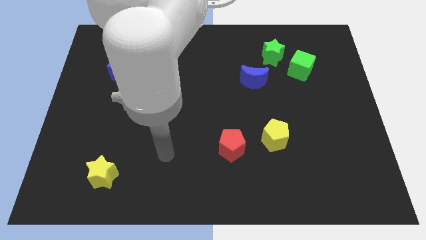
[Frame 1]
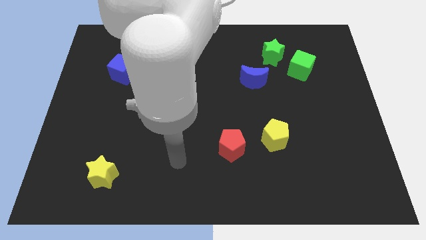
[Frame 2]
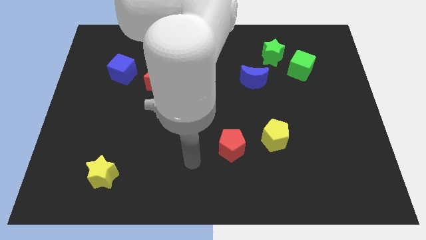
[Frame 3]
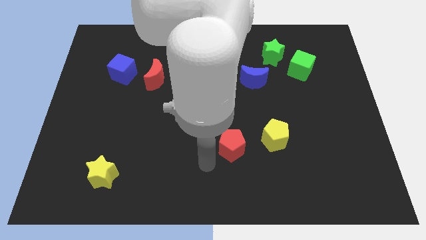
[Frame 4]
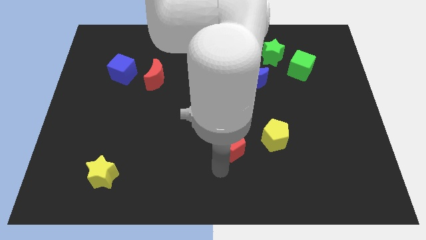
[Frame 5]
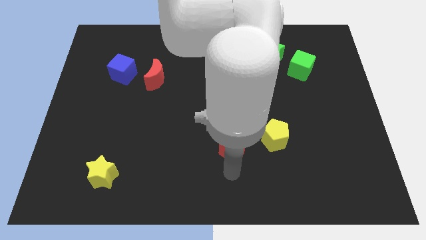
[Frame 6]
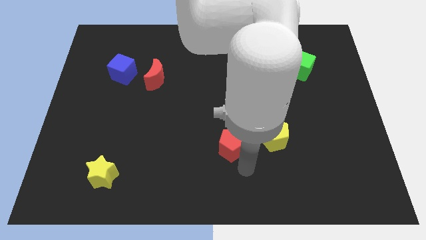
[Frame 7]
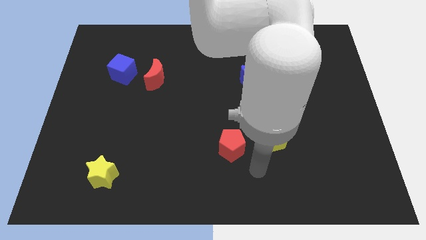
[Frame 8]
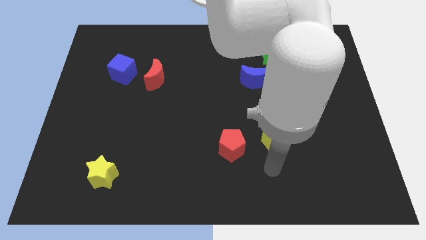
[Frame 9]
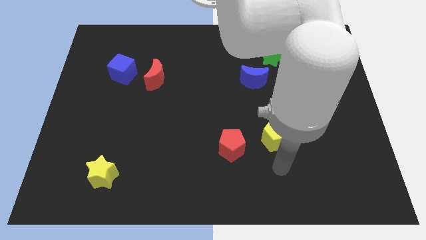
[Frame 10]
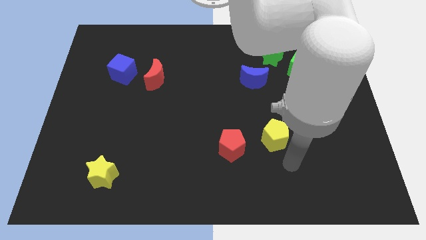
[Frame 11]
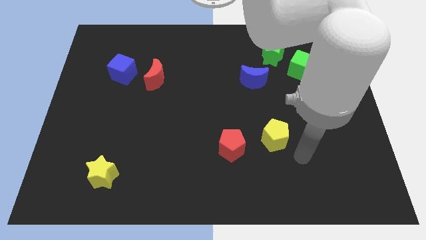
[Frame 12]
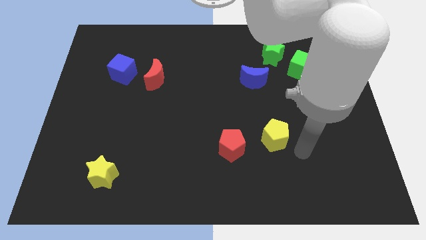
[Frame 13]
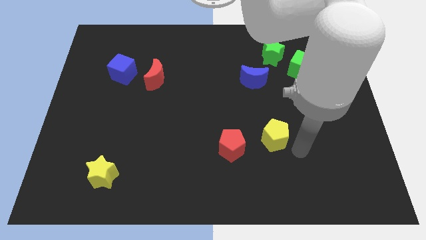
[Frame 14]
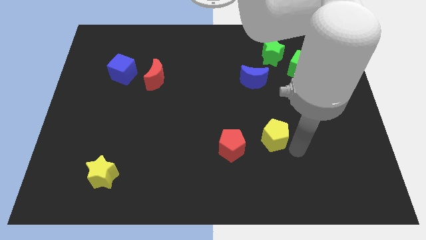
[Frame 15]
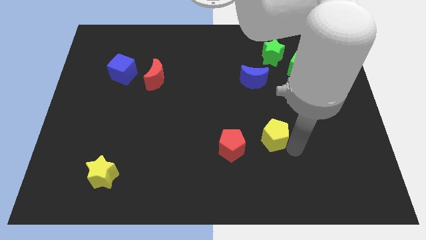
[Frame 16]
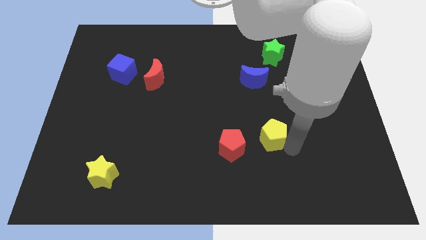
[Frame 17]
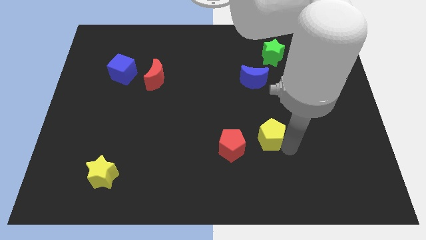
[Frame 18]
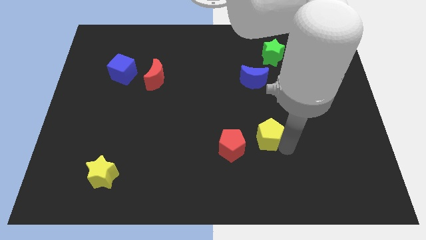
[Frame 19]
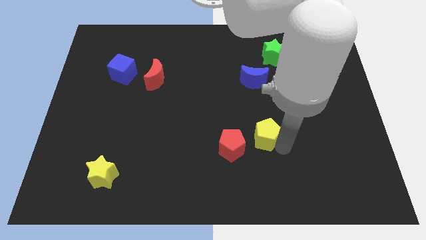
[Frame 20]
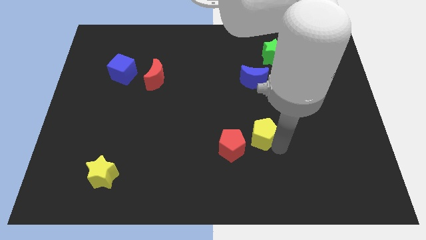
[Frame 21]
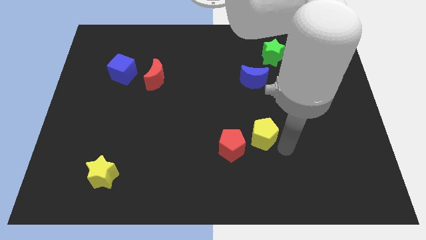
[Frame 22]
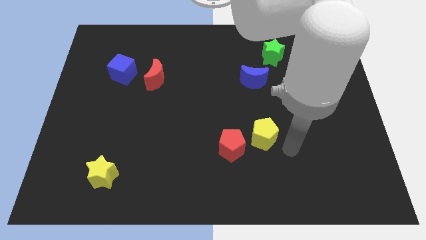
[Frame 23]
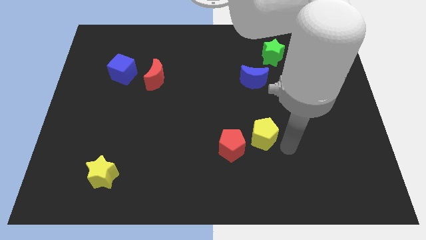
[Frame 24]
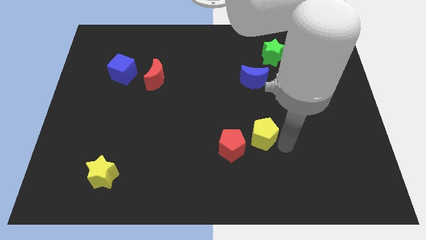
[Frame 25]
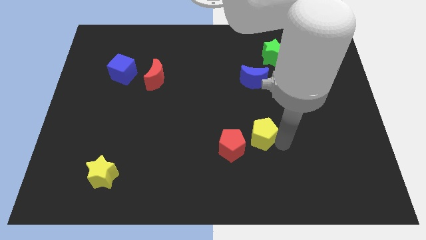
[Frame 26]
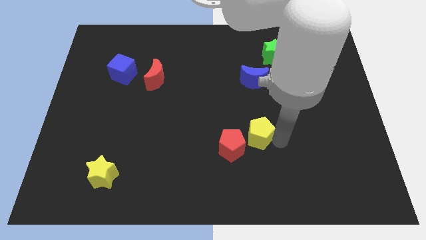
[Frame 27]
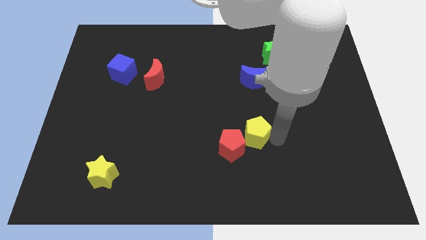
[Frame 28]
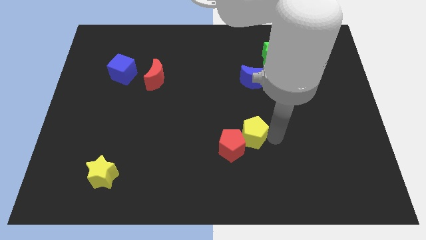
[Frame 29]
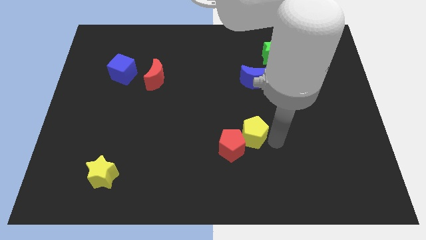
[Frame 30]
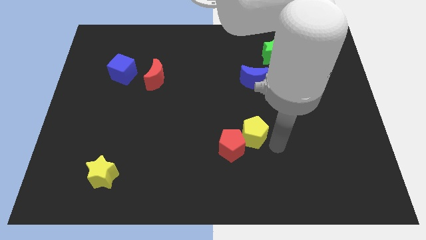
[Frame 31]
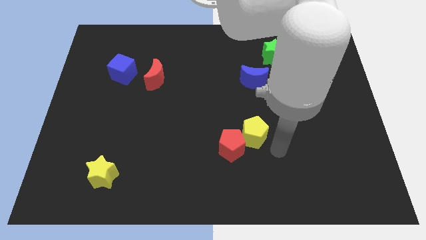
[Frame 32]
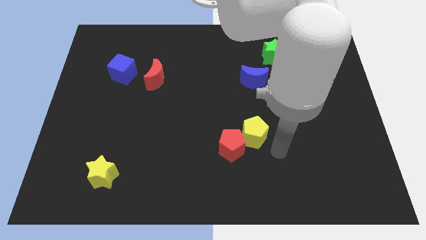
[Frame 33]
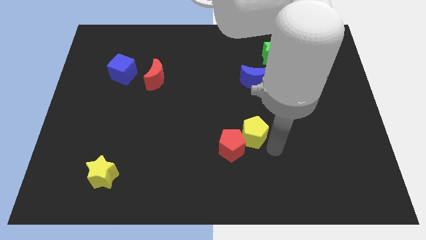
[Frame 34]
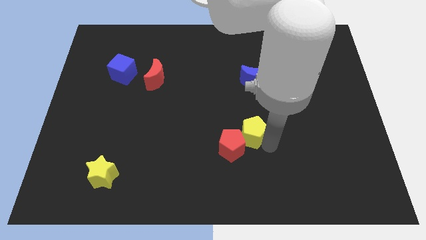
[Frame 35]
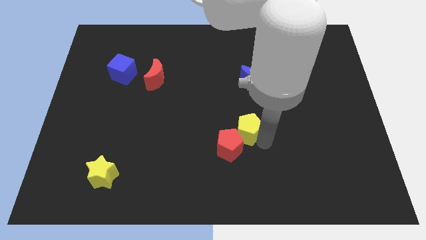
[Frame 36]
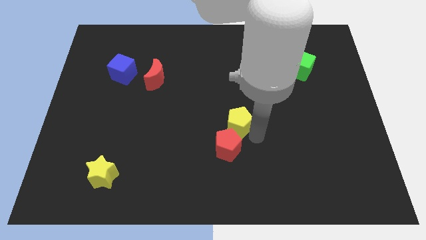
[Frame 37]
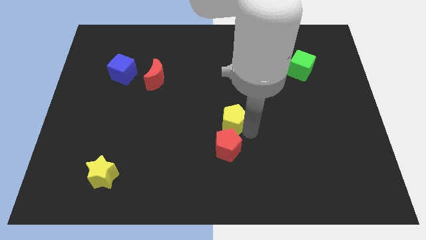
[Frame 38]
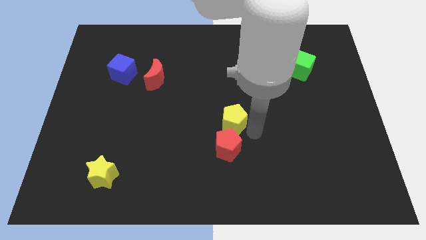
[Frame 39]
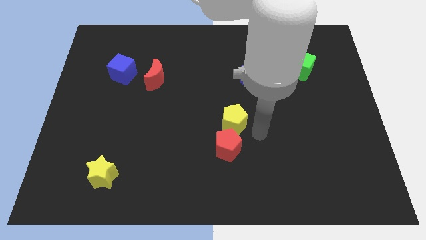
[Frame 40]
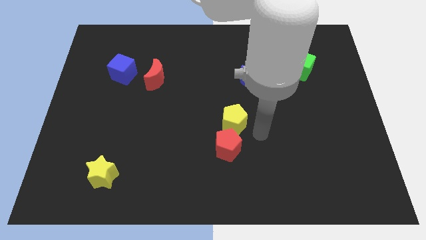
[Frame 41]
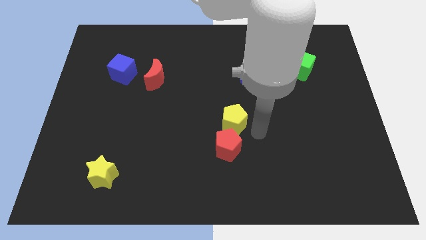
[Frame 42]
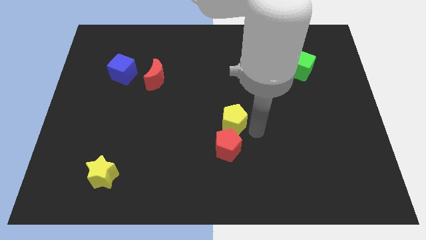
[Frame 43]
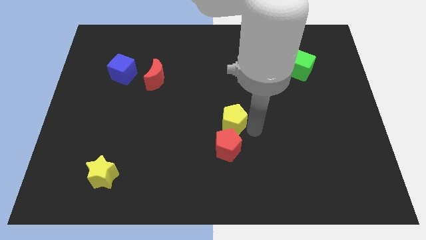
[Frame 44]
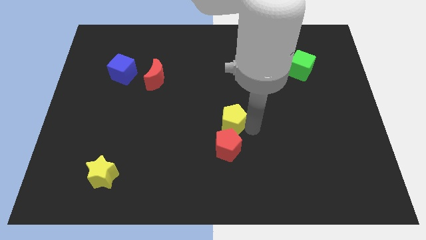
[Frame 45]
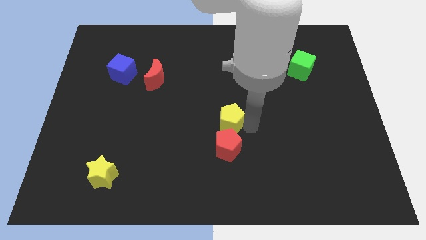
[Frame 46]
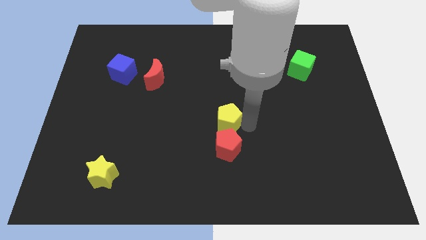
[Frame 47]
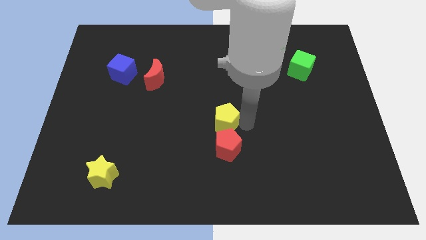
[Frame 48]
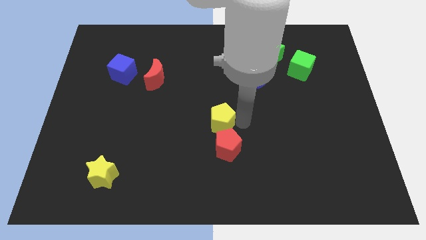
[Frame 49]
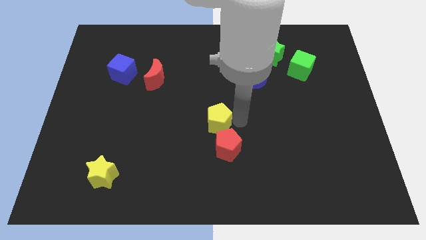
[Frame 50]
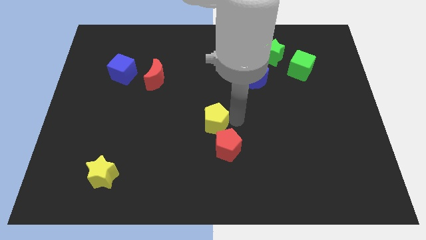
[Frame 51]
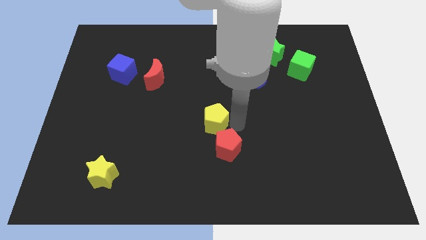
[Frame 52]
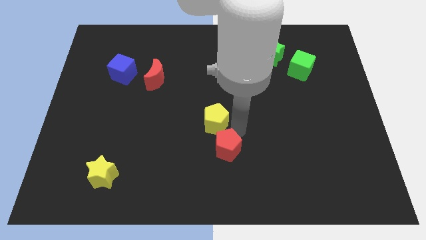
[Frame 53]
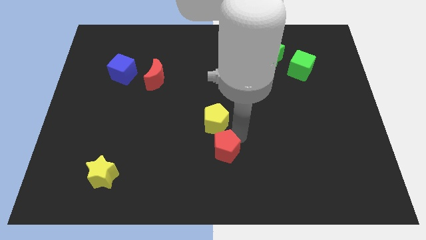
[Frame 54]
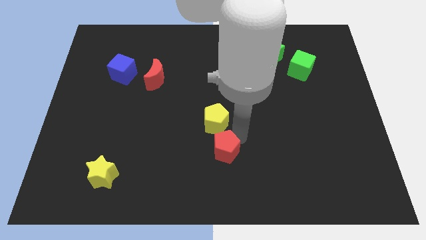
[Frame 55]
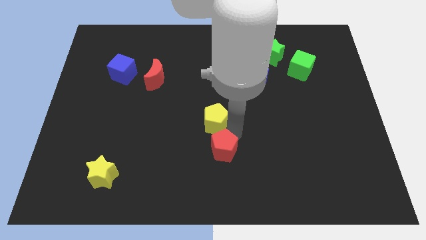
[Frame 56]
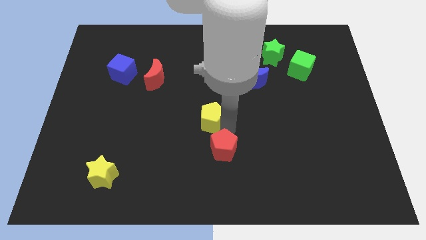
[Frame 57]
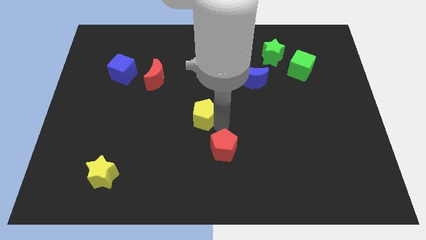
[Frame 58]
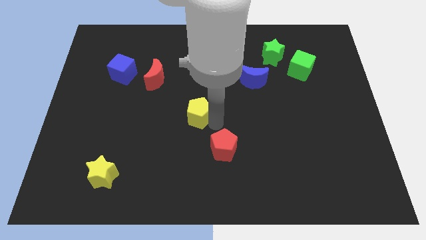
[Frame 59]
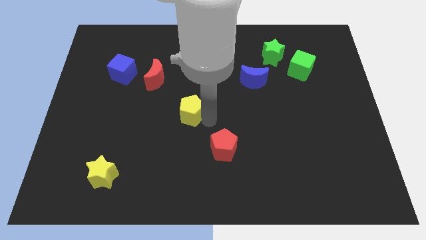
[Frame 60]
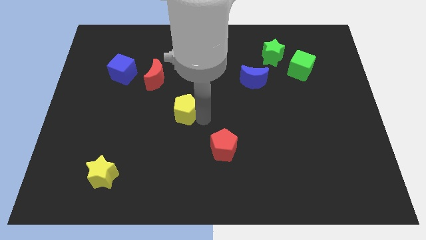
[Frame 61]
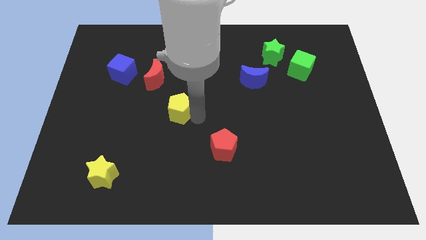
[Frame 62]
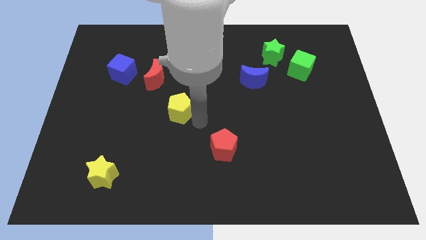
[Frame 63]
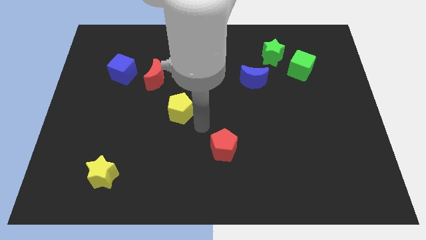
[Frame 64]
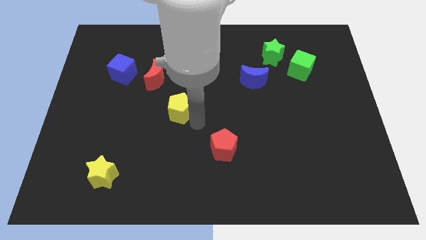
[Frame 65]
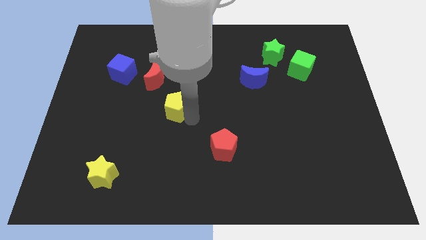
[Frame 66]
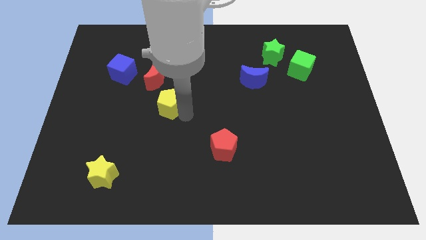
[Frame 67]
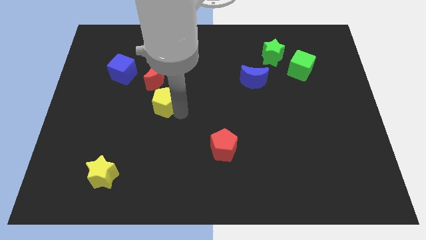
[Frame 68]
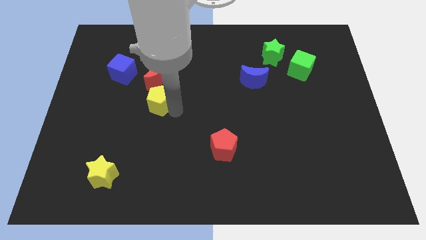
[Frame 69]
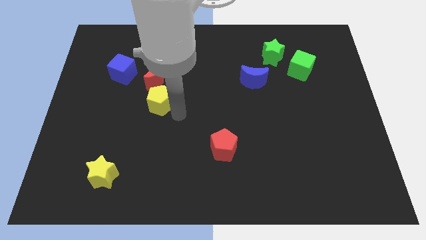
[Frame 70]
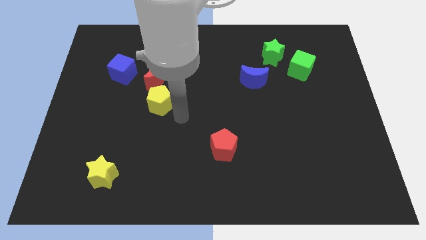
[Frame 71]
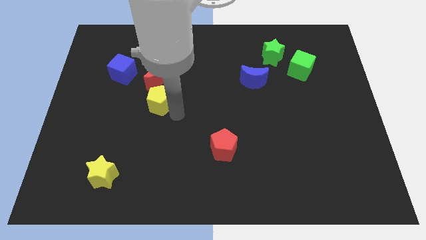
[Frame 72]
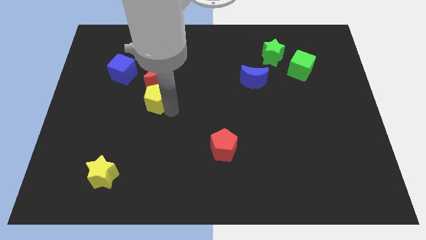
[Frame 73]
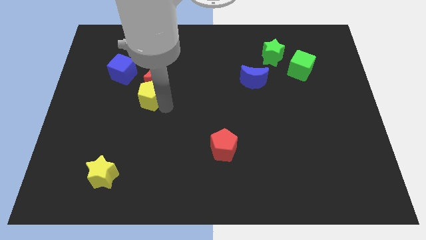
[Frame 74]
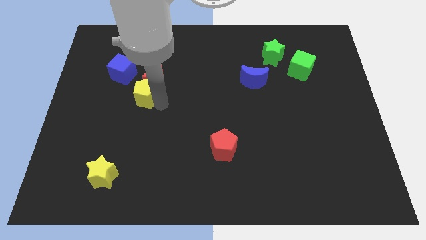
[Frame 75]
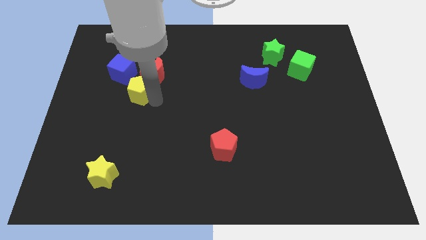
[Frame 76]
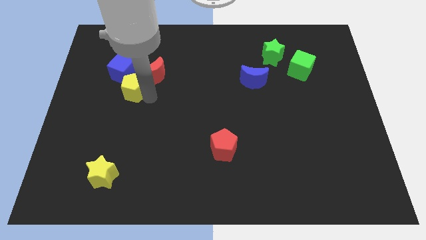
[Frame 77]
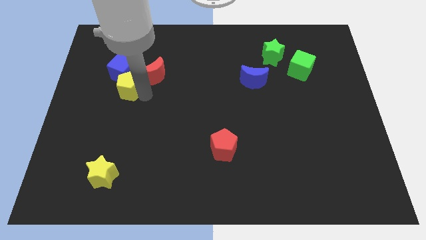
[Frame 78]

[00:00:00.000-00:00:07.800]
slide the yellow pentagon towards the blue cube
